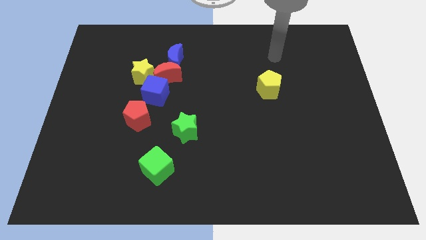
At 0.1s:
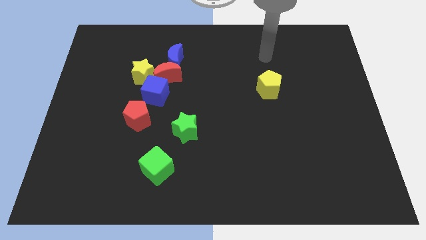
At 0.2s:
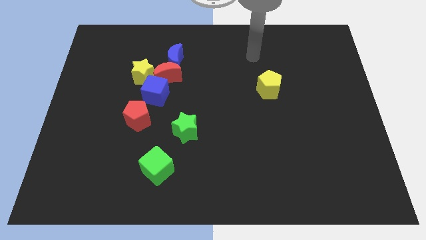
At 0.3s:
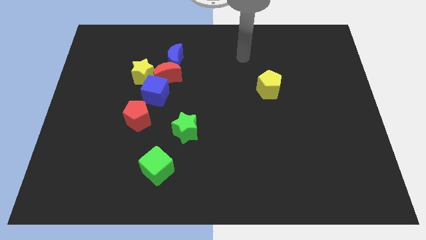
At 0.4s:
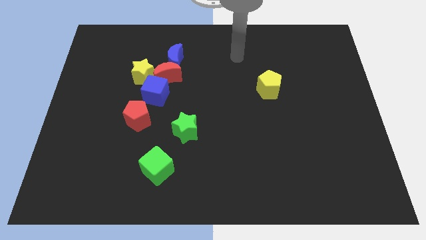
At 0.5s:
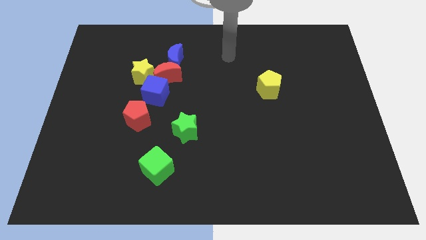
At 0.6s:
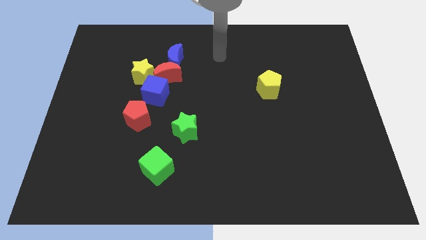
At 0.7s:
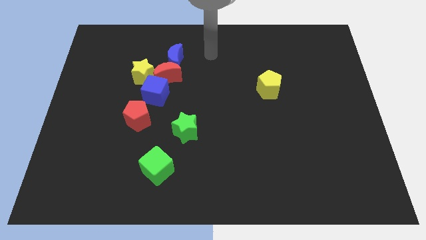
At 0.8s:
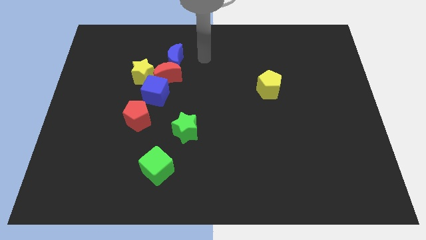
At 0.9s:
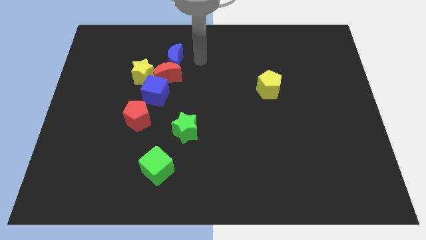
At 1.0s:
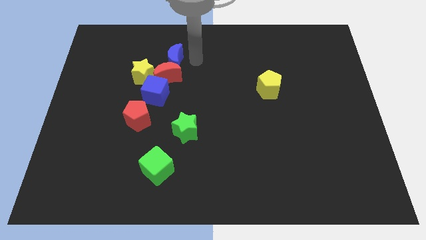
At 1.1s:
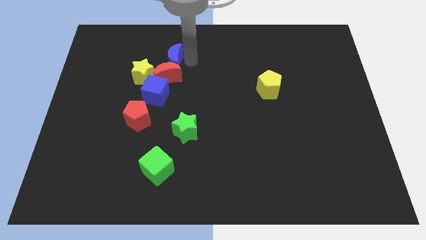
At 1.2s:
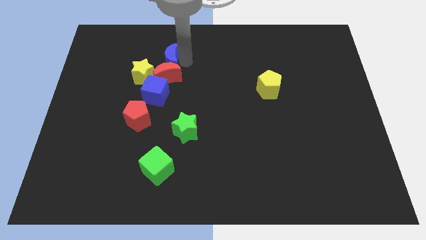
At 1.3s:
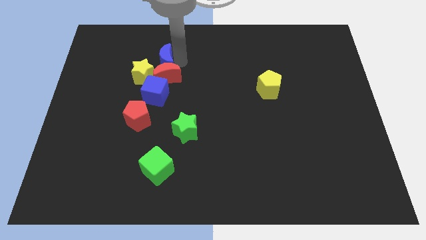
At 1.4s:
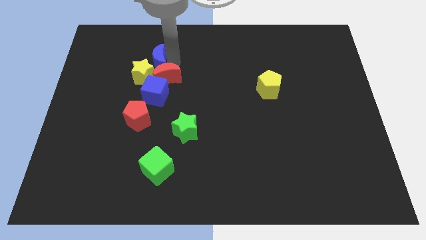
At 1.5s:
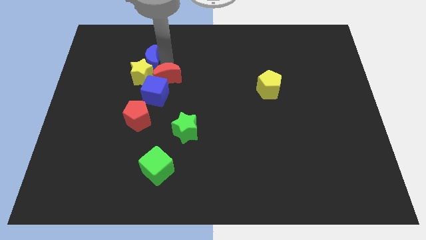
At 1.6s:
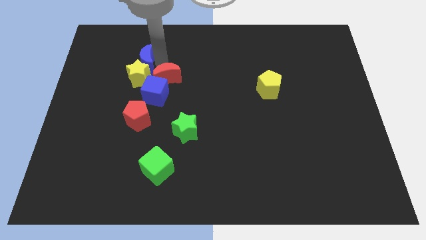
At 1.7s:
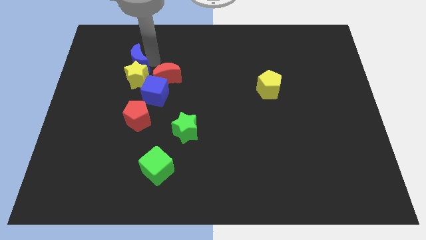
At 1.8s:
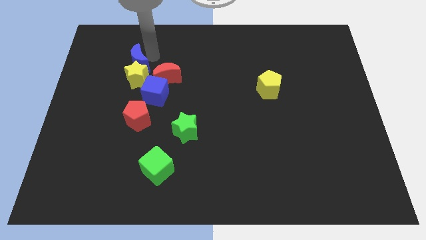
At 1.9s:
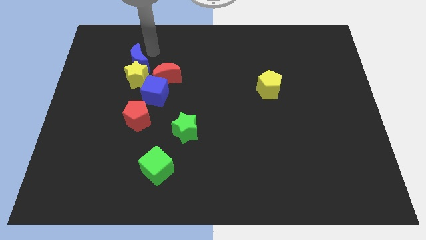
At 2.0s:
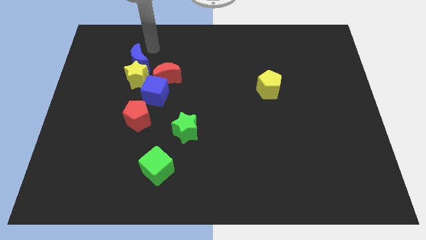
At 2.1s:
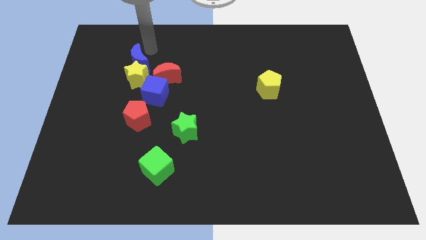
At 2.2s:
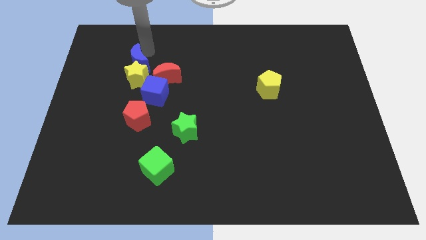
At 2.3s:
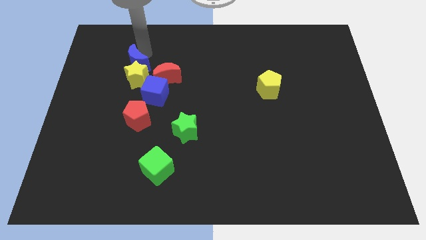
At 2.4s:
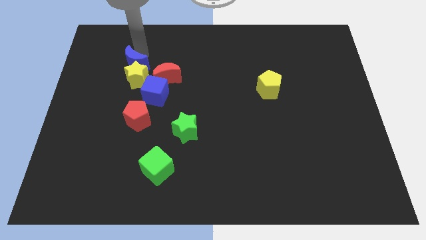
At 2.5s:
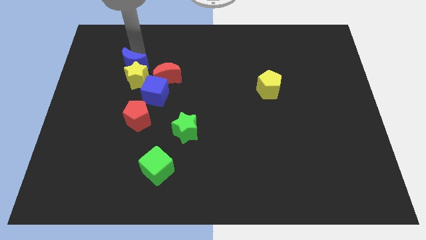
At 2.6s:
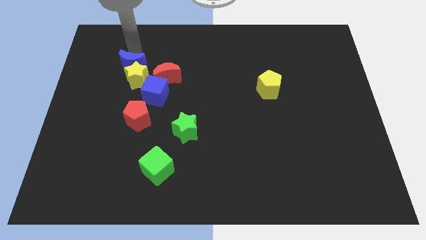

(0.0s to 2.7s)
slightly move the blue moon diagonally down and left

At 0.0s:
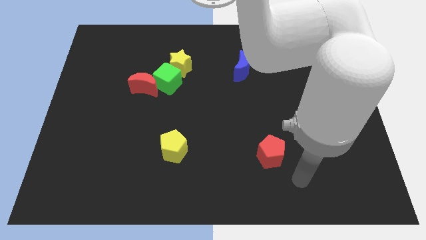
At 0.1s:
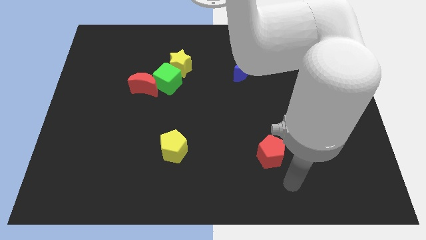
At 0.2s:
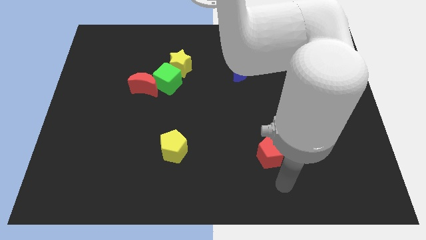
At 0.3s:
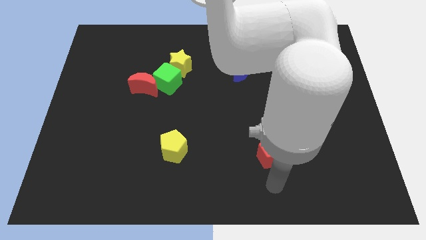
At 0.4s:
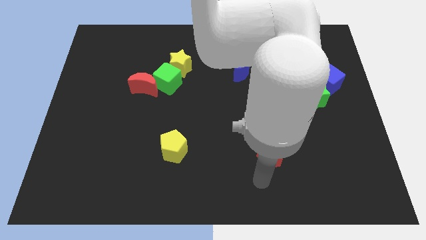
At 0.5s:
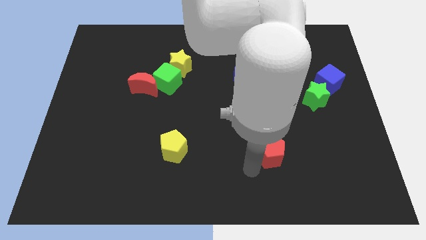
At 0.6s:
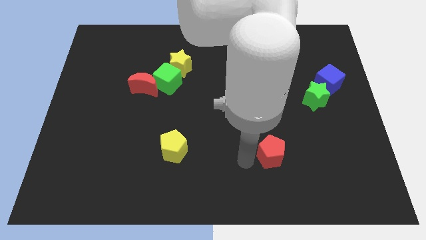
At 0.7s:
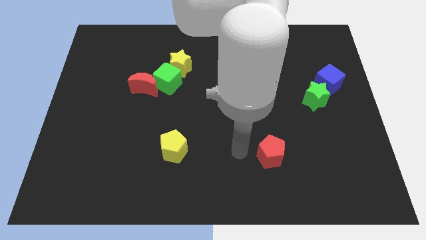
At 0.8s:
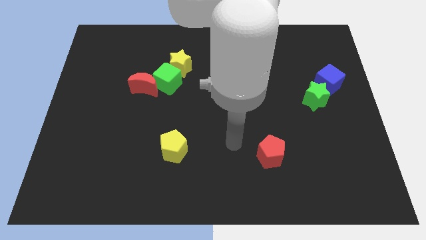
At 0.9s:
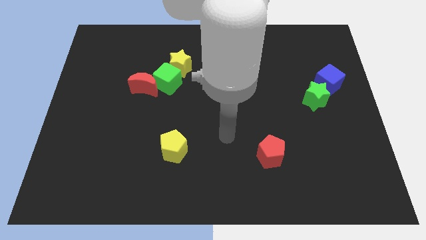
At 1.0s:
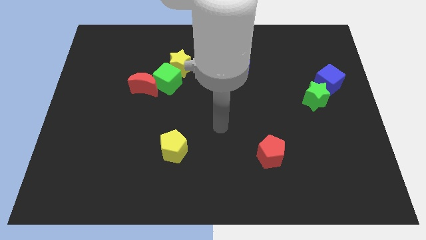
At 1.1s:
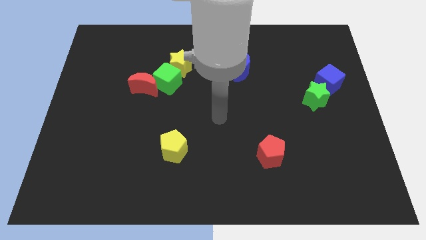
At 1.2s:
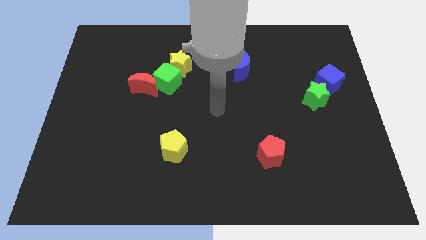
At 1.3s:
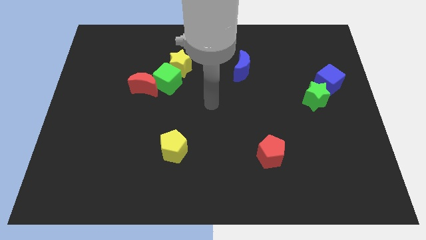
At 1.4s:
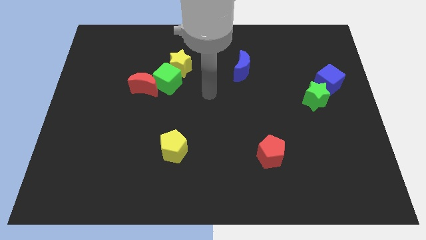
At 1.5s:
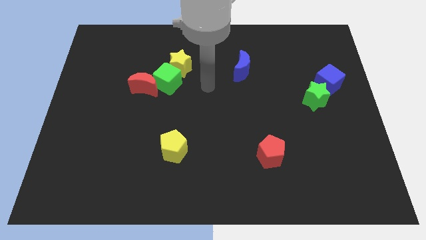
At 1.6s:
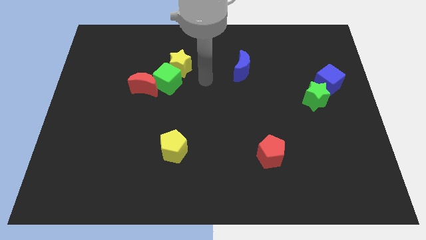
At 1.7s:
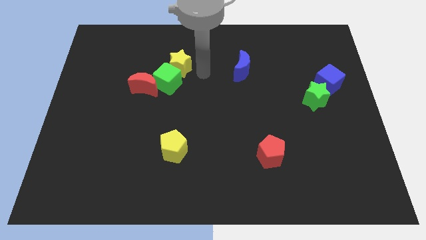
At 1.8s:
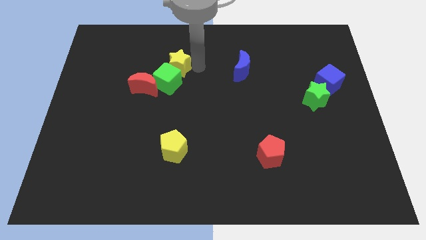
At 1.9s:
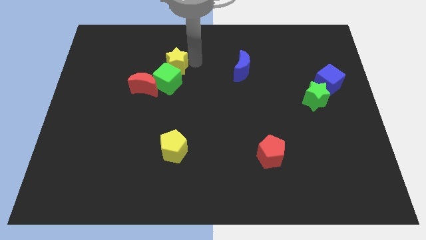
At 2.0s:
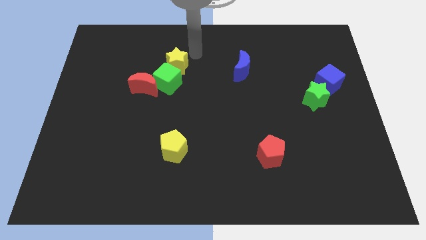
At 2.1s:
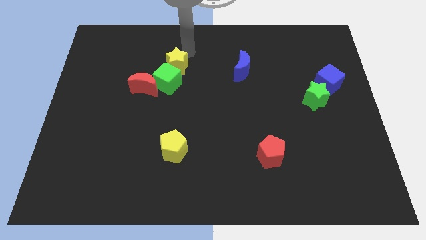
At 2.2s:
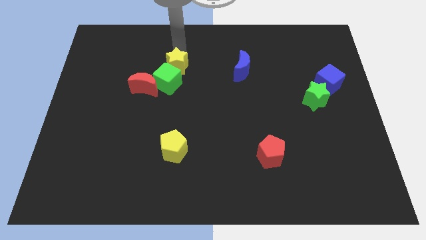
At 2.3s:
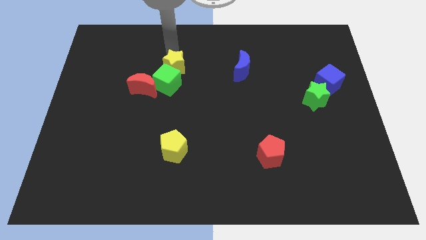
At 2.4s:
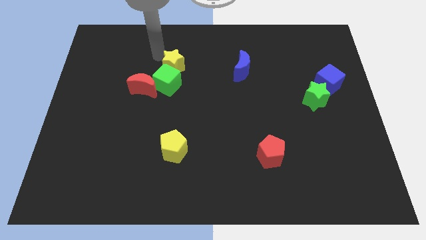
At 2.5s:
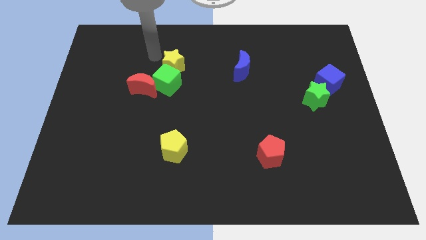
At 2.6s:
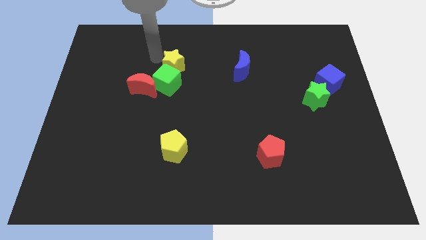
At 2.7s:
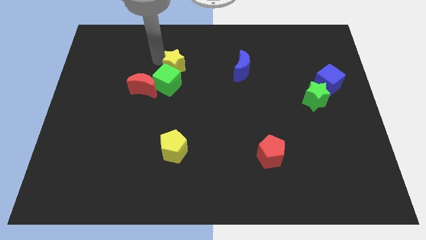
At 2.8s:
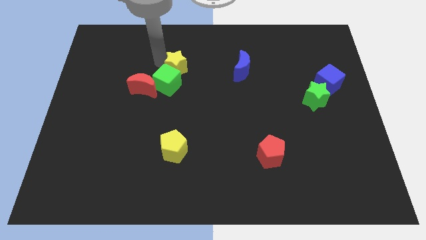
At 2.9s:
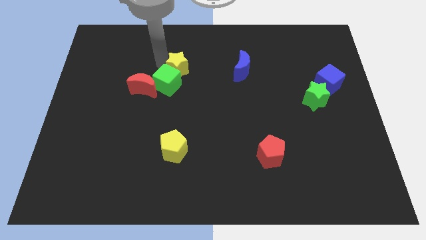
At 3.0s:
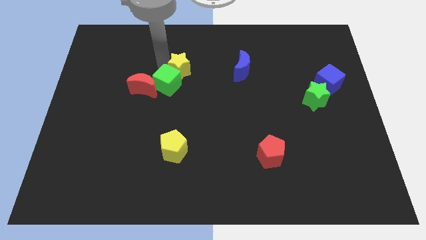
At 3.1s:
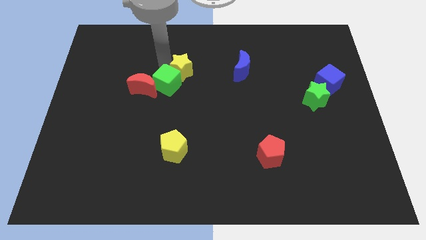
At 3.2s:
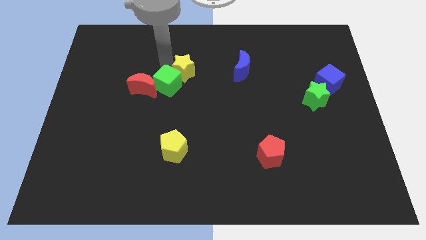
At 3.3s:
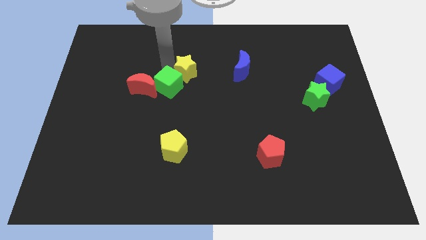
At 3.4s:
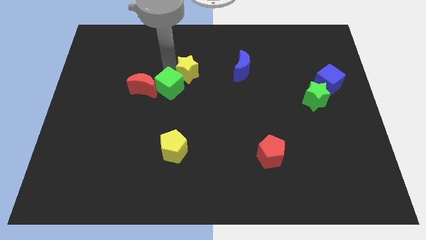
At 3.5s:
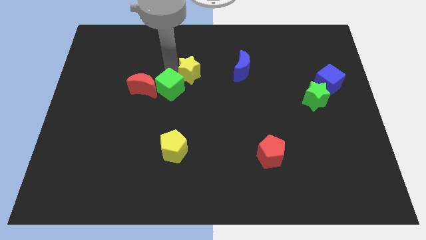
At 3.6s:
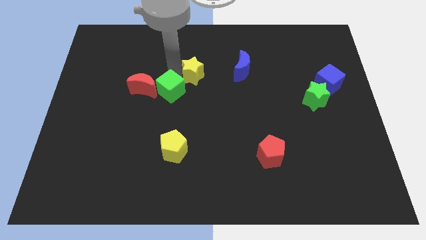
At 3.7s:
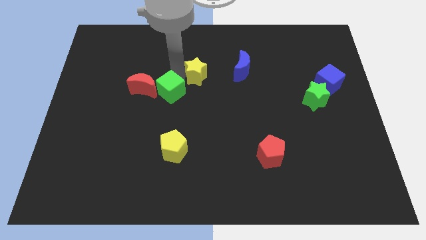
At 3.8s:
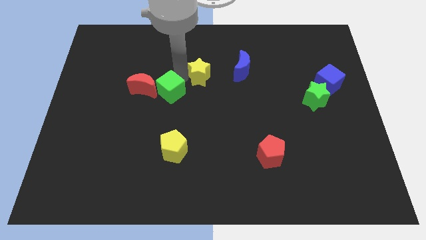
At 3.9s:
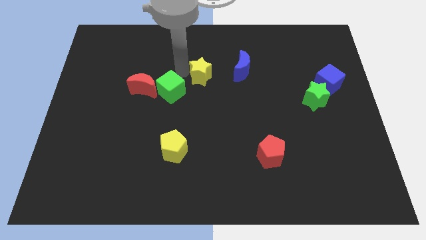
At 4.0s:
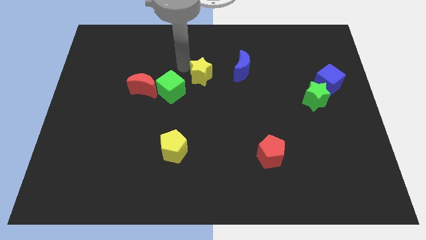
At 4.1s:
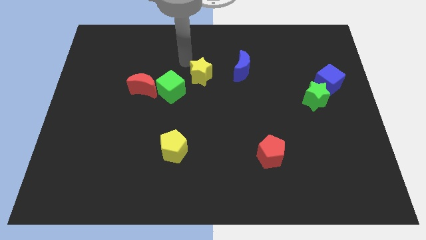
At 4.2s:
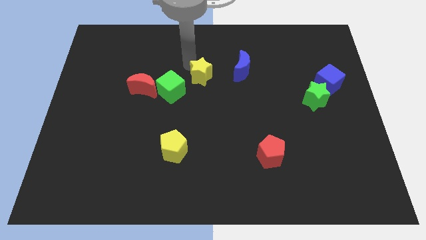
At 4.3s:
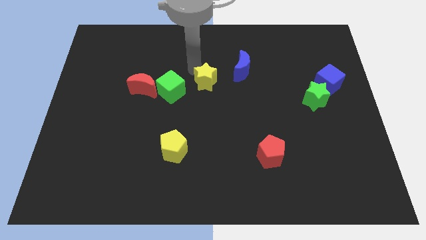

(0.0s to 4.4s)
slide the yellow star down and to the right a little bit

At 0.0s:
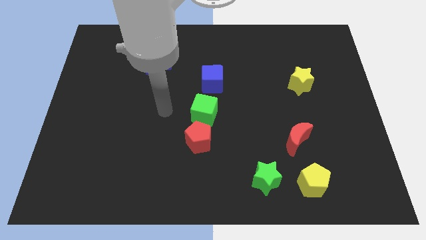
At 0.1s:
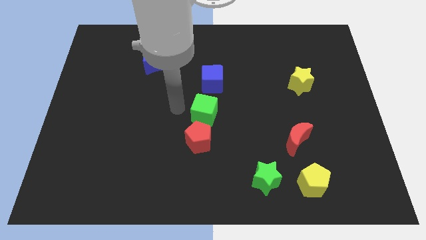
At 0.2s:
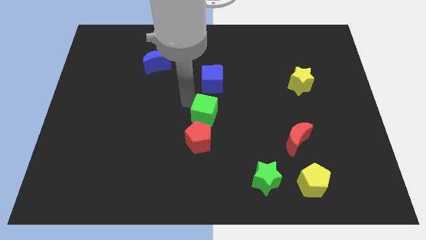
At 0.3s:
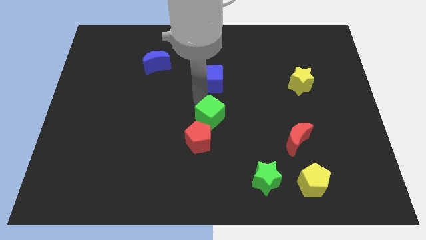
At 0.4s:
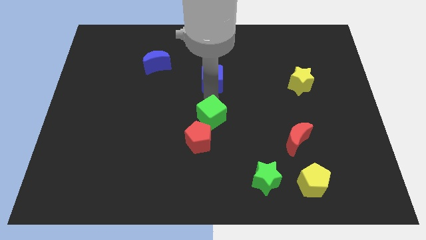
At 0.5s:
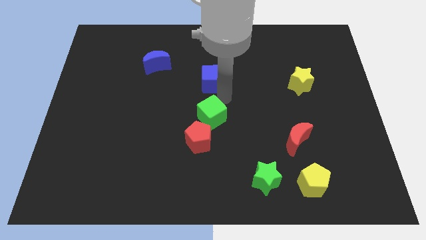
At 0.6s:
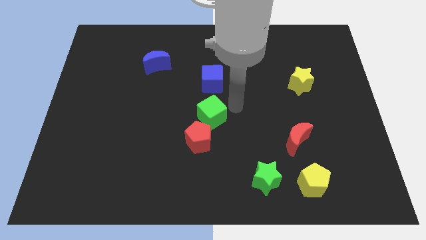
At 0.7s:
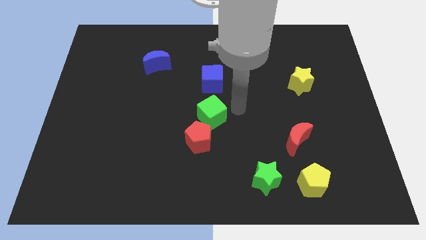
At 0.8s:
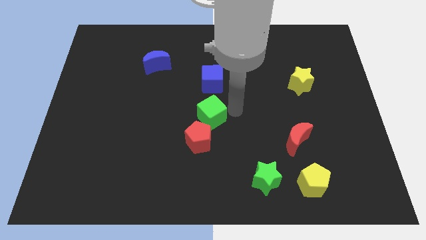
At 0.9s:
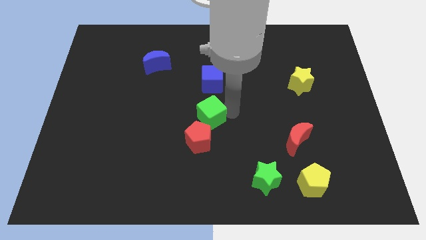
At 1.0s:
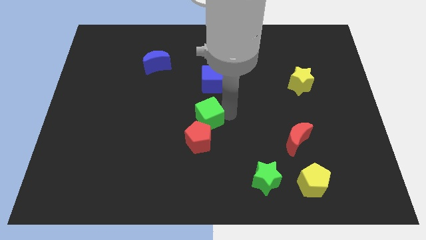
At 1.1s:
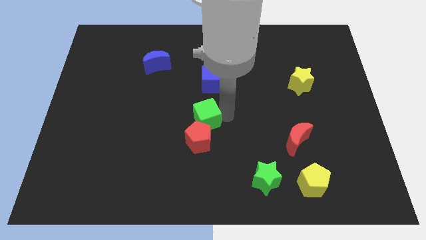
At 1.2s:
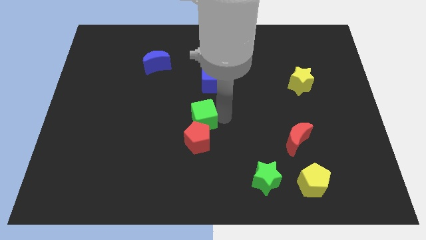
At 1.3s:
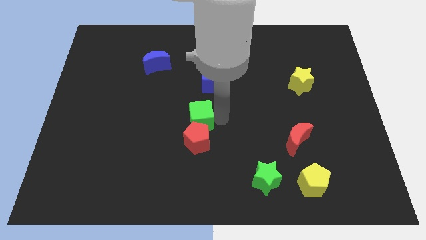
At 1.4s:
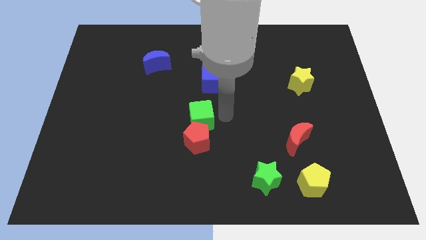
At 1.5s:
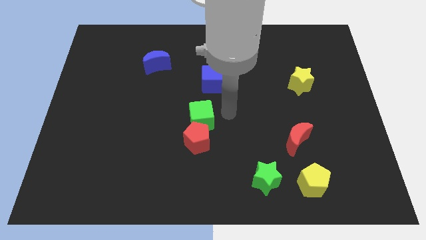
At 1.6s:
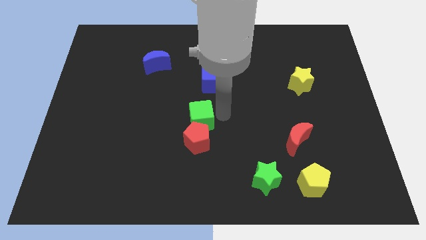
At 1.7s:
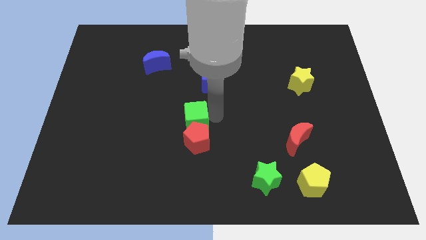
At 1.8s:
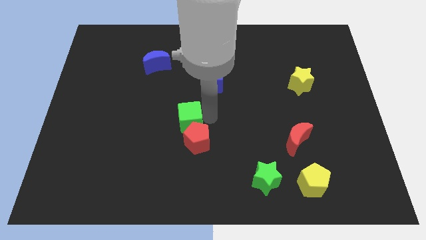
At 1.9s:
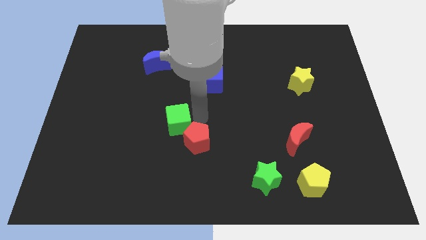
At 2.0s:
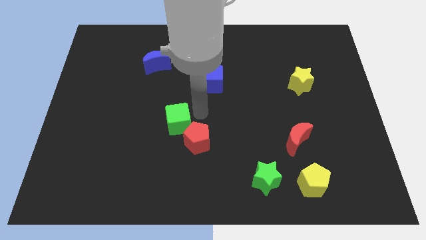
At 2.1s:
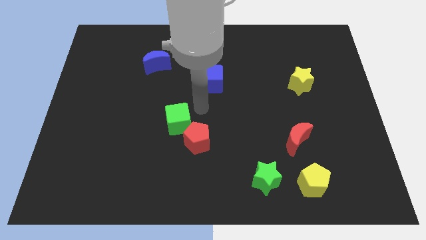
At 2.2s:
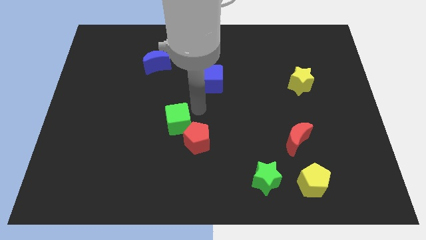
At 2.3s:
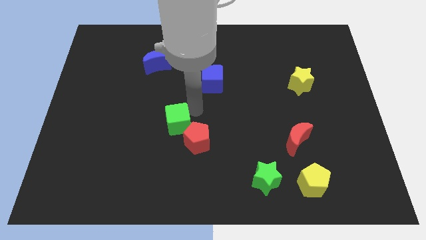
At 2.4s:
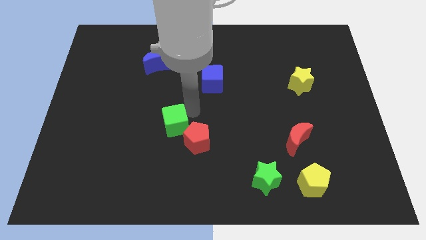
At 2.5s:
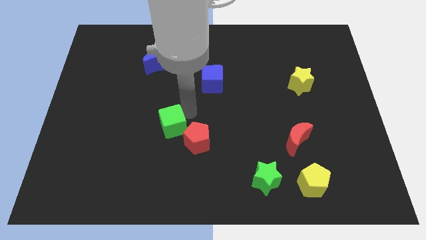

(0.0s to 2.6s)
slide the green cube downwards and left a bit
